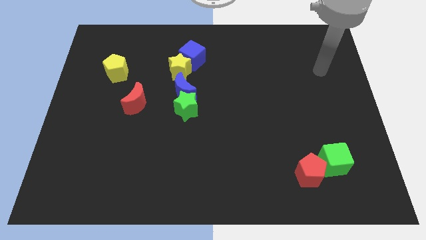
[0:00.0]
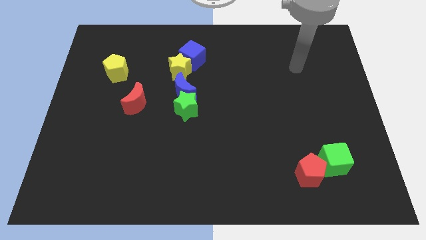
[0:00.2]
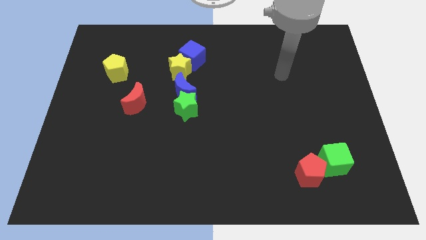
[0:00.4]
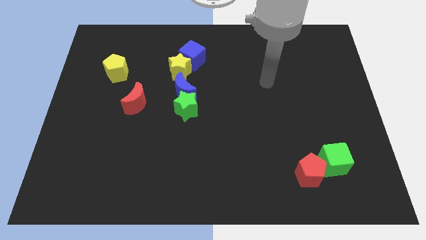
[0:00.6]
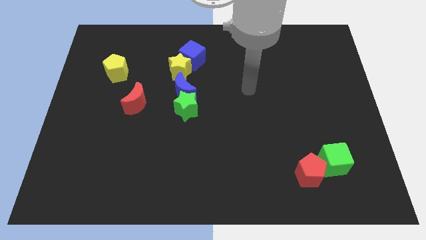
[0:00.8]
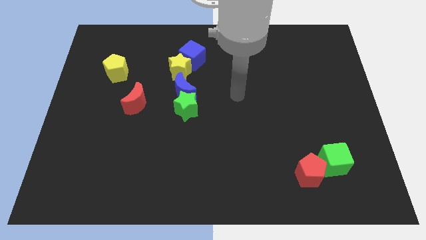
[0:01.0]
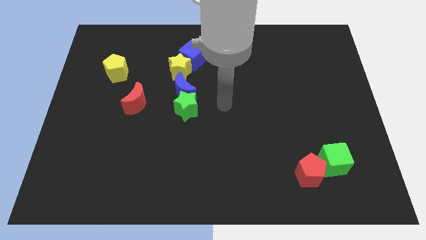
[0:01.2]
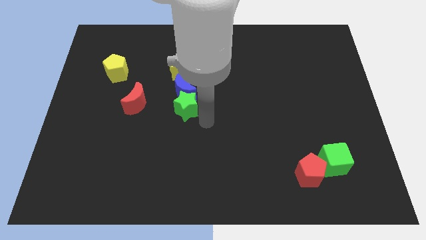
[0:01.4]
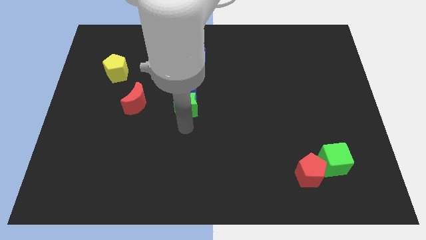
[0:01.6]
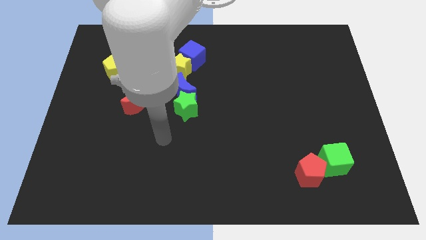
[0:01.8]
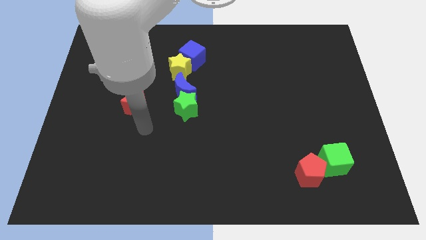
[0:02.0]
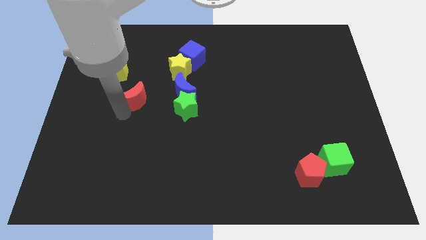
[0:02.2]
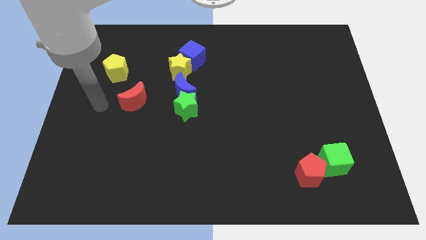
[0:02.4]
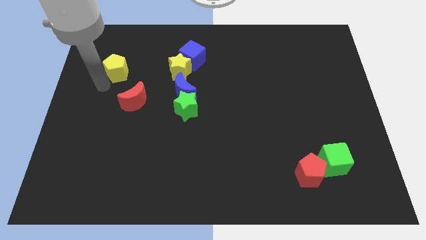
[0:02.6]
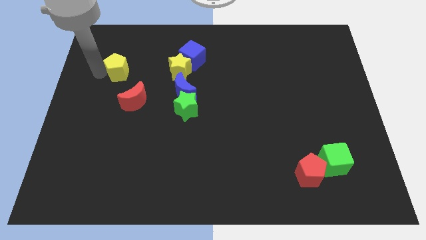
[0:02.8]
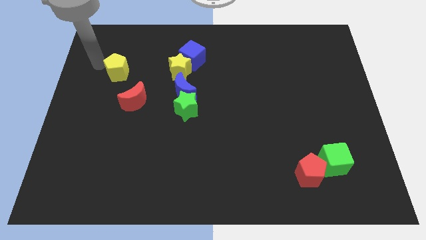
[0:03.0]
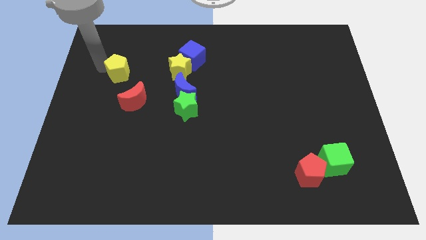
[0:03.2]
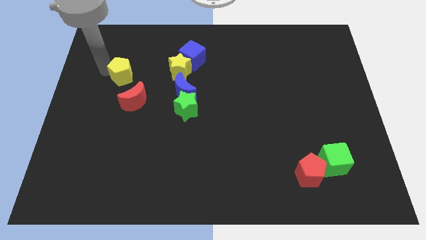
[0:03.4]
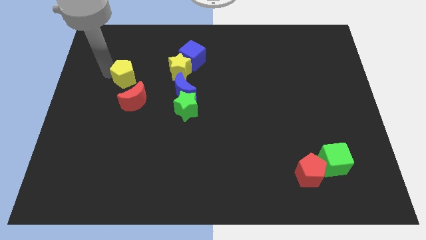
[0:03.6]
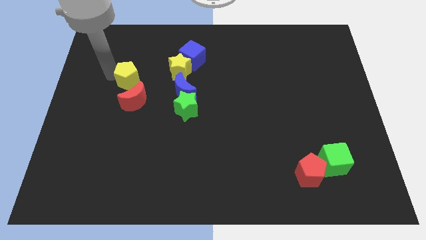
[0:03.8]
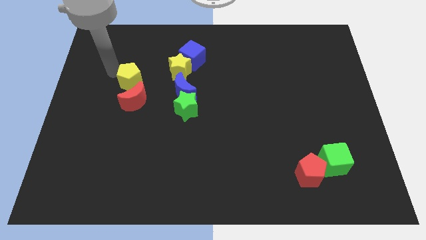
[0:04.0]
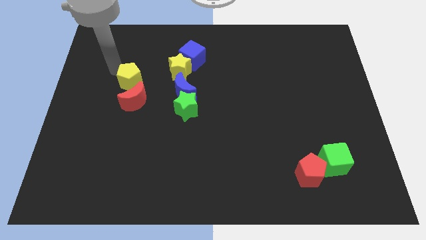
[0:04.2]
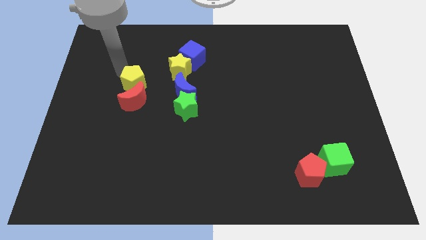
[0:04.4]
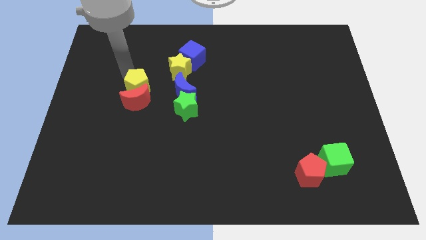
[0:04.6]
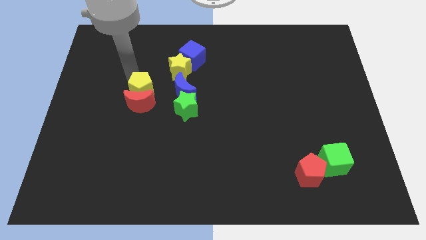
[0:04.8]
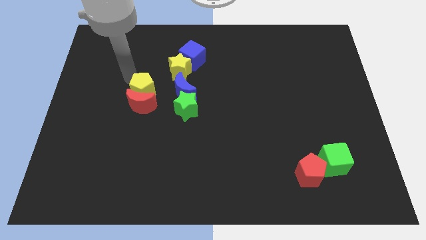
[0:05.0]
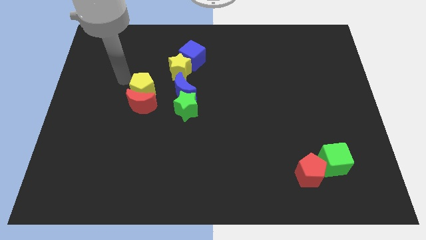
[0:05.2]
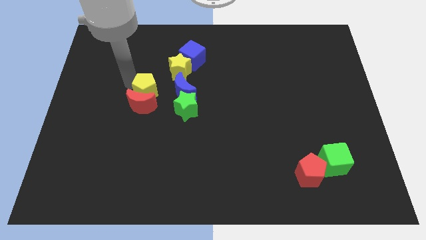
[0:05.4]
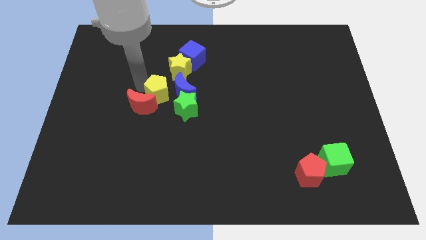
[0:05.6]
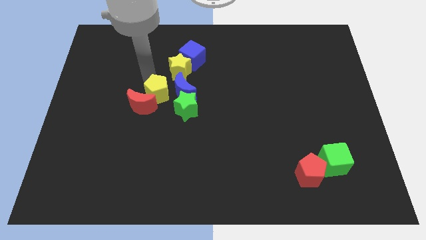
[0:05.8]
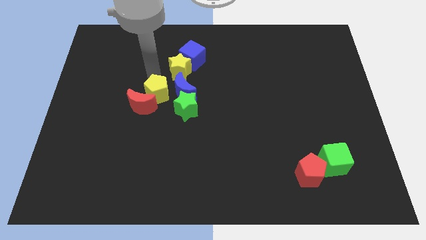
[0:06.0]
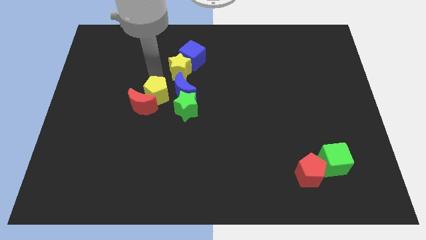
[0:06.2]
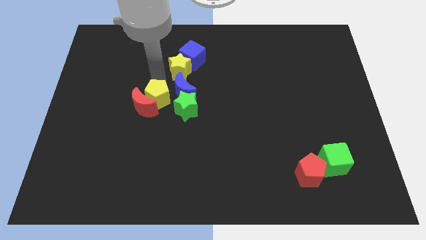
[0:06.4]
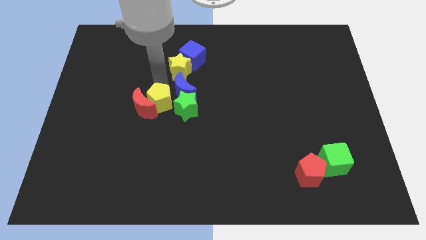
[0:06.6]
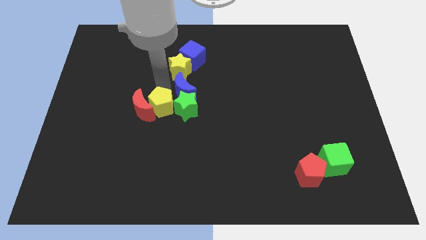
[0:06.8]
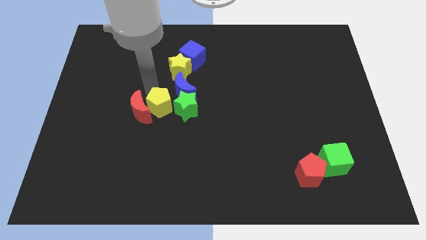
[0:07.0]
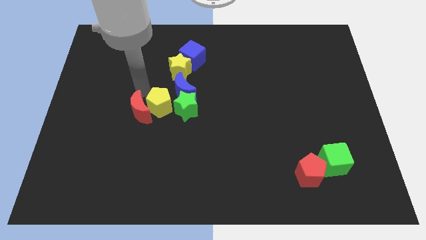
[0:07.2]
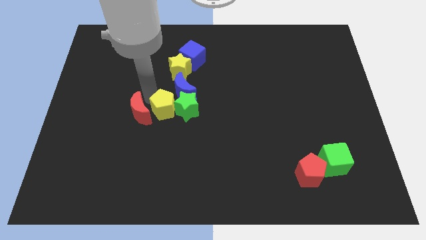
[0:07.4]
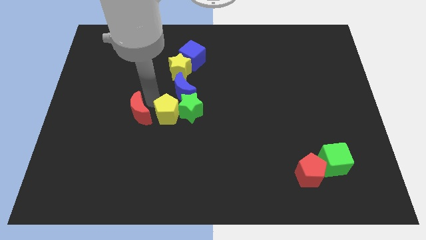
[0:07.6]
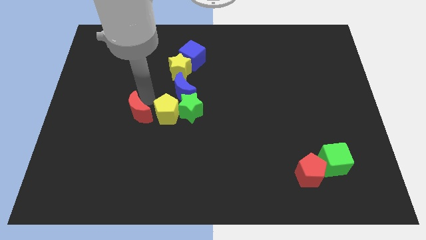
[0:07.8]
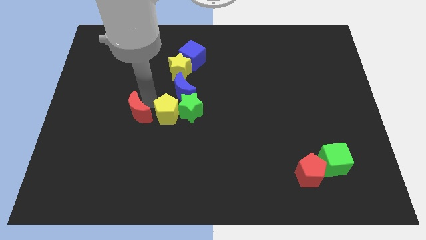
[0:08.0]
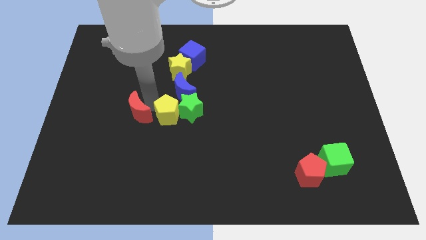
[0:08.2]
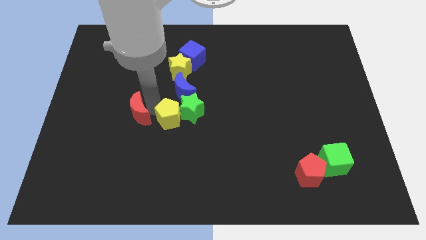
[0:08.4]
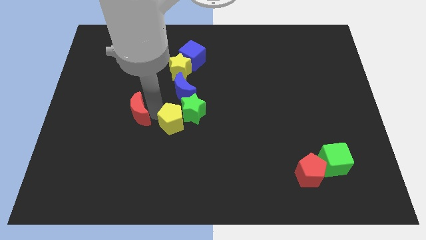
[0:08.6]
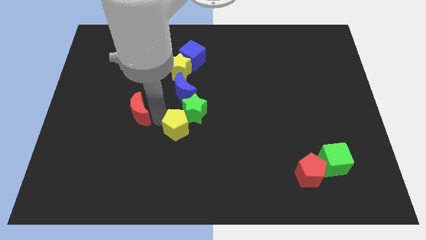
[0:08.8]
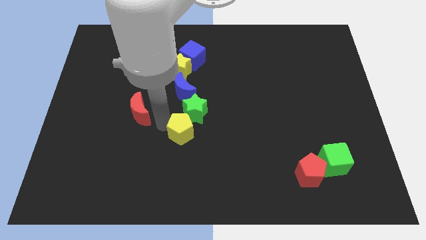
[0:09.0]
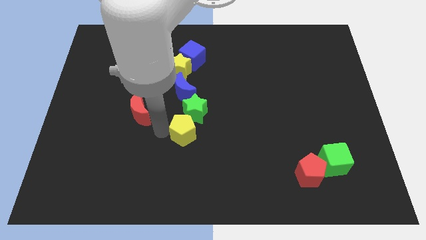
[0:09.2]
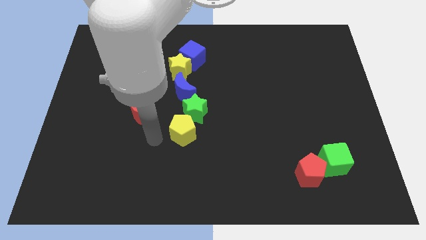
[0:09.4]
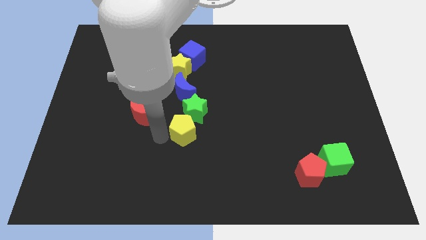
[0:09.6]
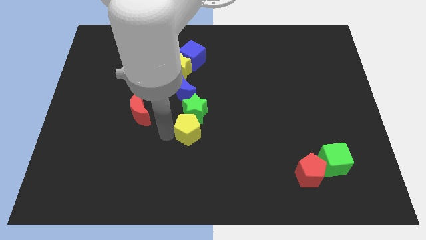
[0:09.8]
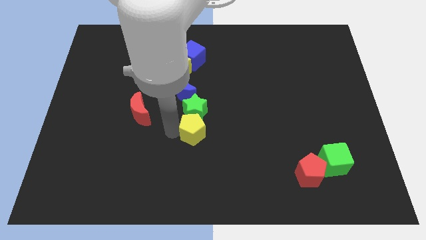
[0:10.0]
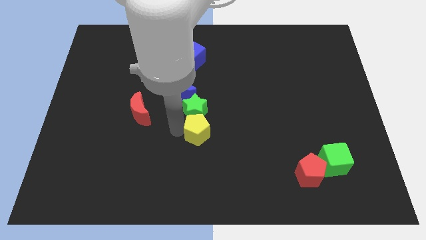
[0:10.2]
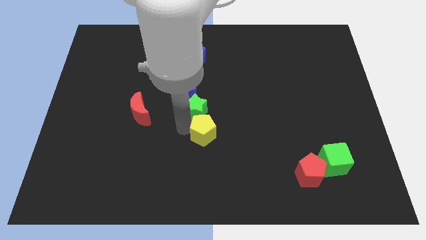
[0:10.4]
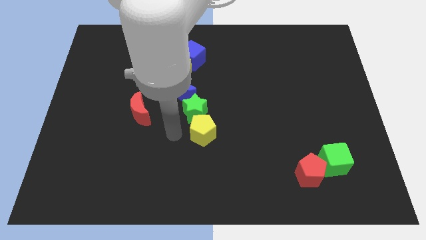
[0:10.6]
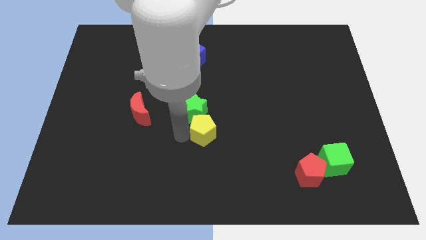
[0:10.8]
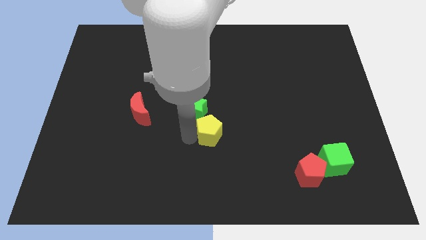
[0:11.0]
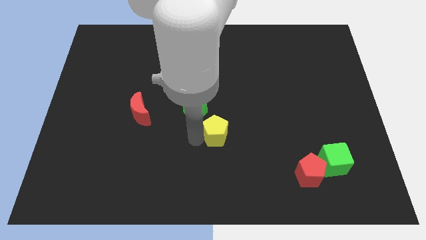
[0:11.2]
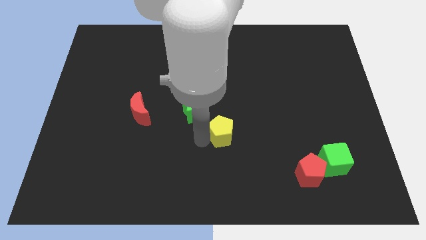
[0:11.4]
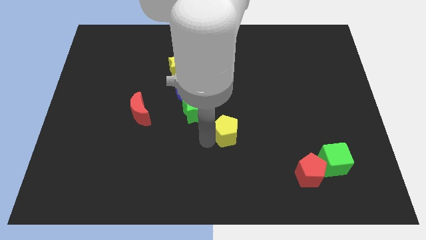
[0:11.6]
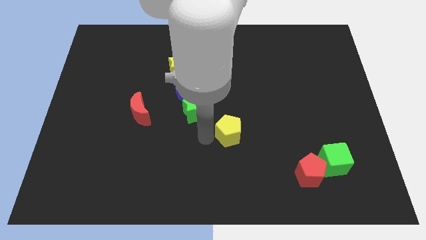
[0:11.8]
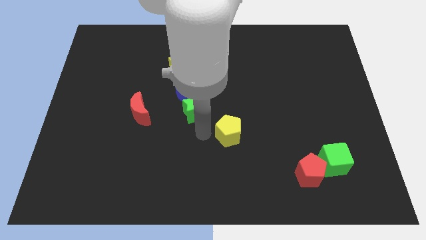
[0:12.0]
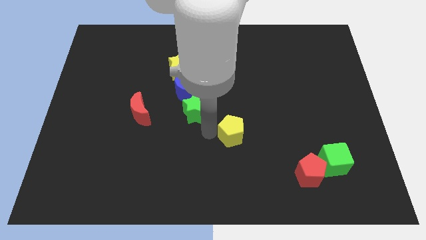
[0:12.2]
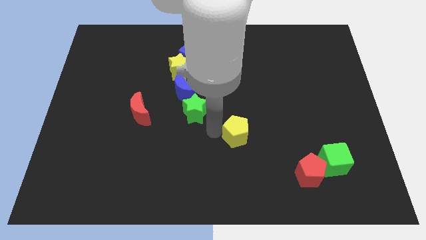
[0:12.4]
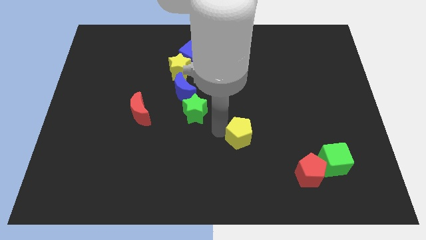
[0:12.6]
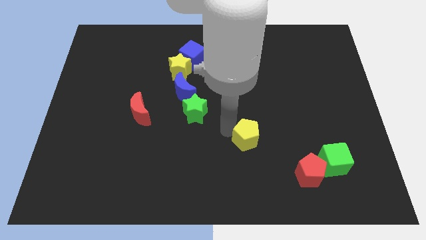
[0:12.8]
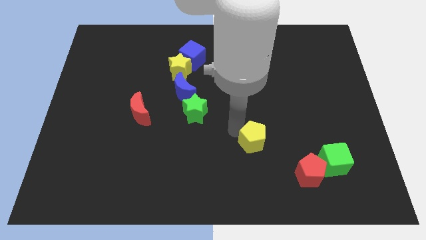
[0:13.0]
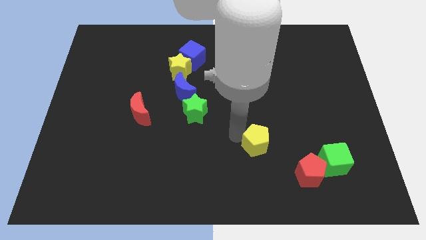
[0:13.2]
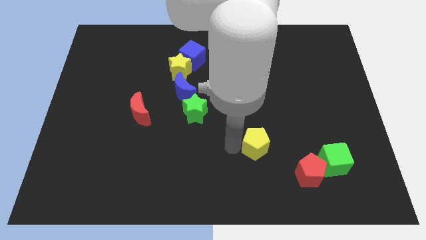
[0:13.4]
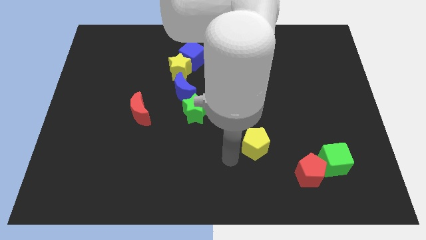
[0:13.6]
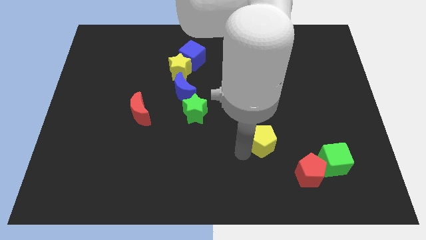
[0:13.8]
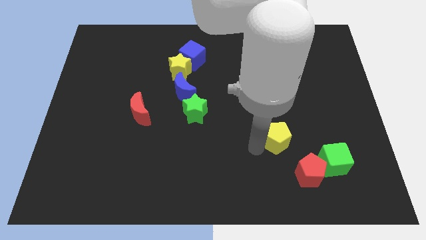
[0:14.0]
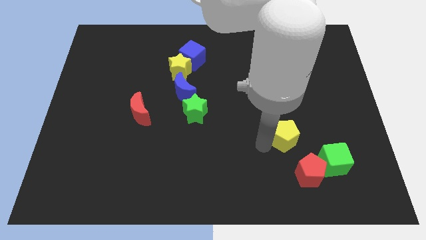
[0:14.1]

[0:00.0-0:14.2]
push the yellow pentagon to the top side of the red pentagon
